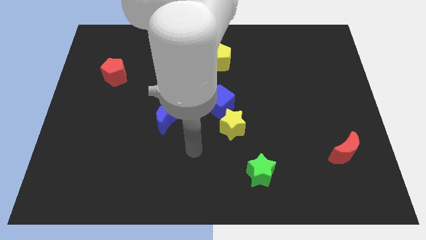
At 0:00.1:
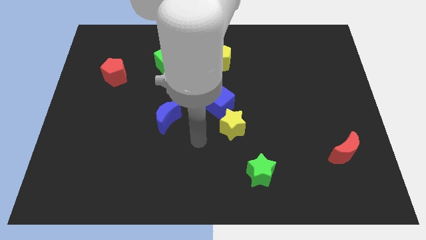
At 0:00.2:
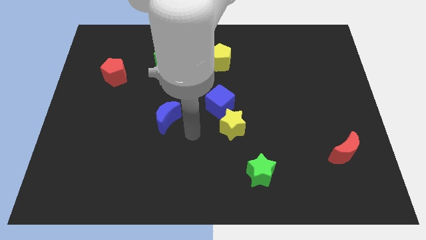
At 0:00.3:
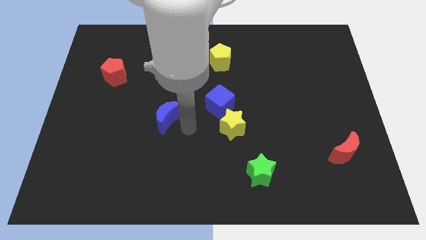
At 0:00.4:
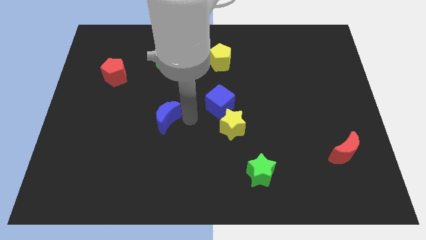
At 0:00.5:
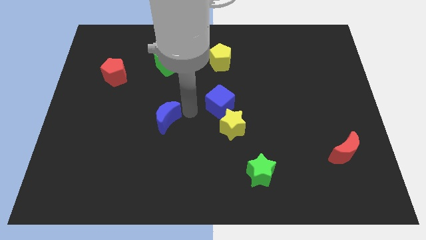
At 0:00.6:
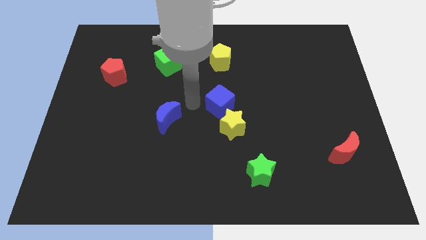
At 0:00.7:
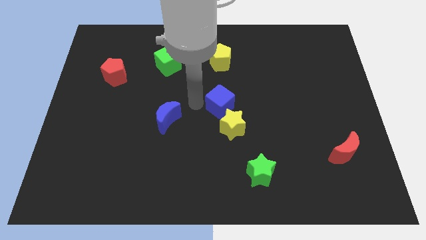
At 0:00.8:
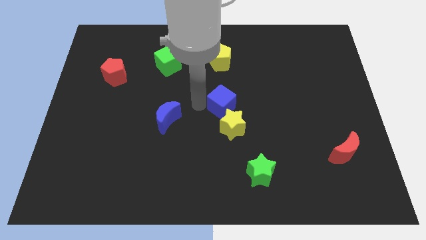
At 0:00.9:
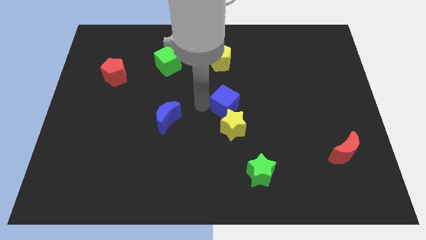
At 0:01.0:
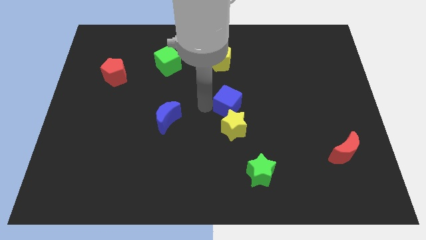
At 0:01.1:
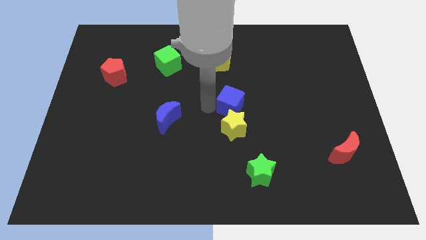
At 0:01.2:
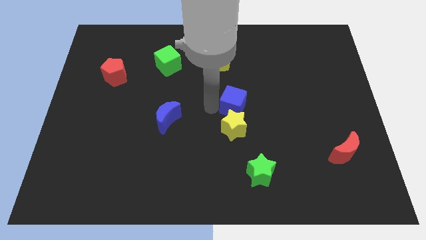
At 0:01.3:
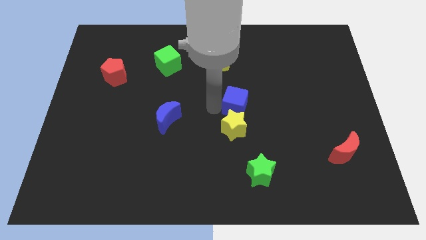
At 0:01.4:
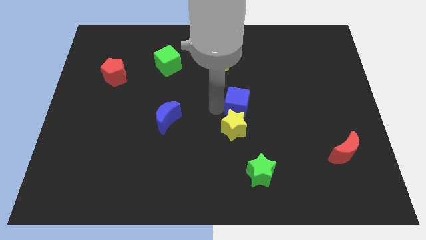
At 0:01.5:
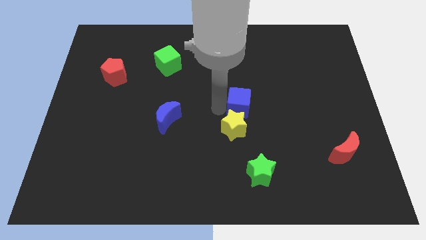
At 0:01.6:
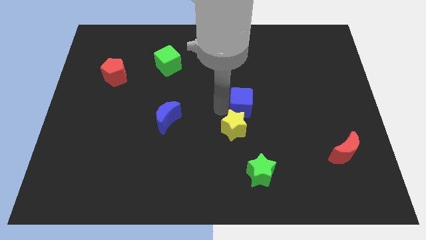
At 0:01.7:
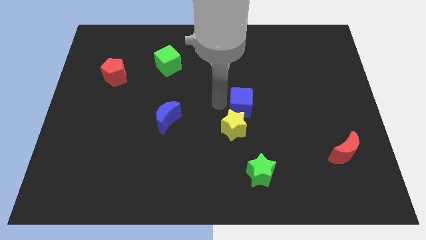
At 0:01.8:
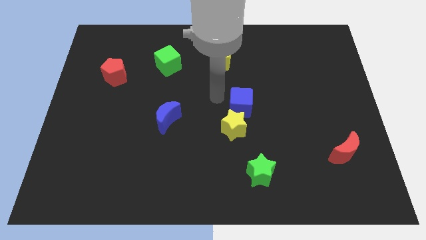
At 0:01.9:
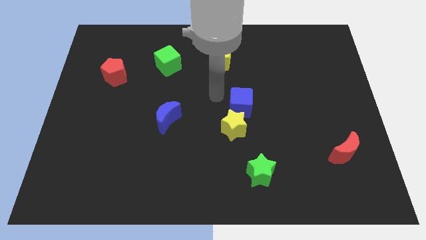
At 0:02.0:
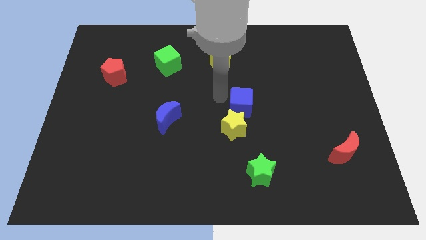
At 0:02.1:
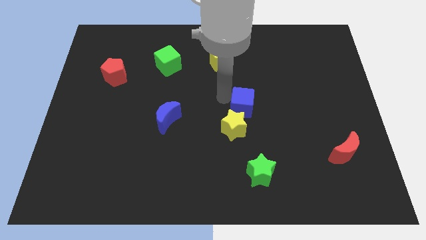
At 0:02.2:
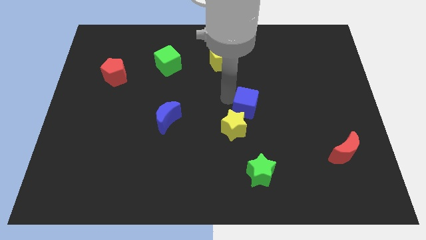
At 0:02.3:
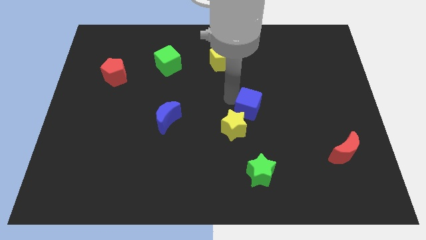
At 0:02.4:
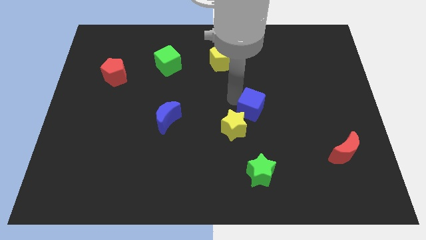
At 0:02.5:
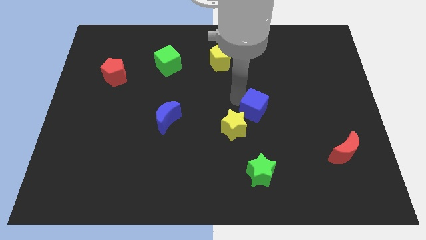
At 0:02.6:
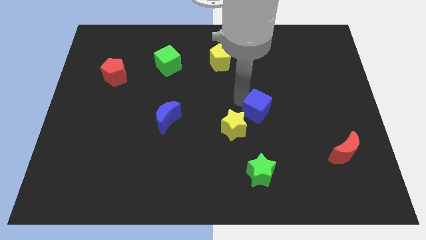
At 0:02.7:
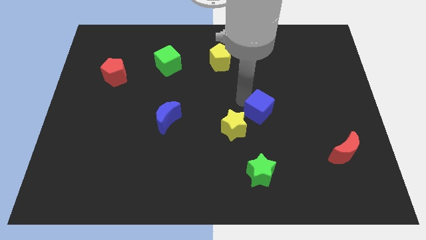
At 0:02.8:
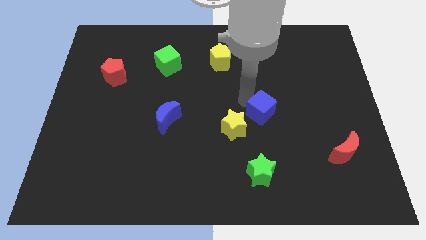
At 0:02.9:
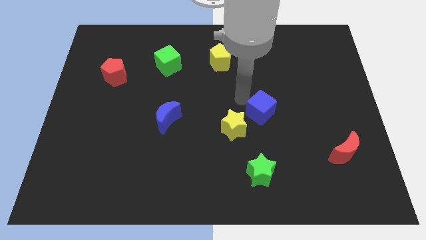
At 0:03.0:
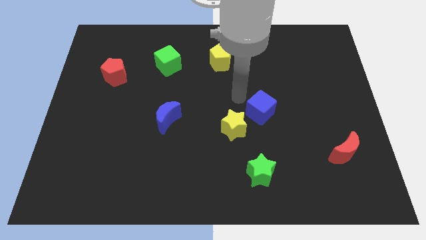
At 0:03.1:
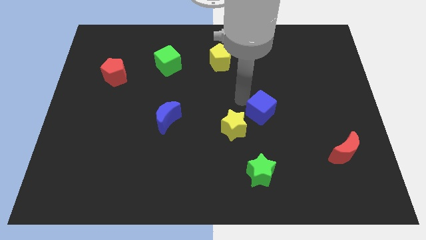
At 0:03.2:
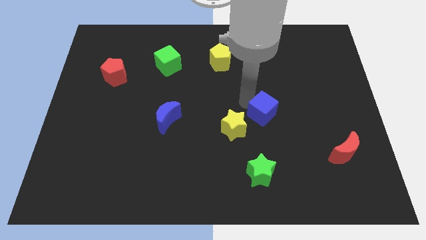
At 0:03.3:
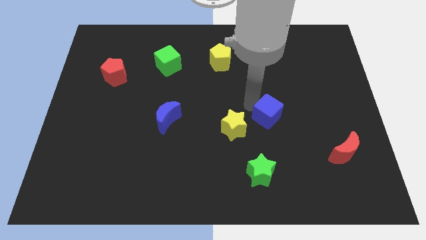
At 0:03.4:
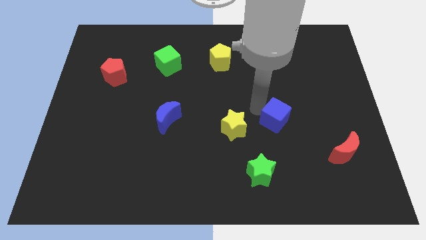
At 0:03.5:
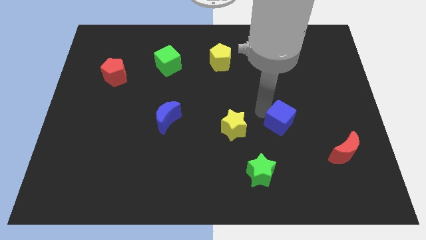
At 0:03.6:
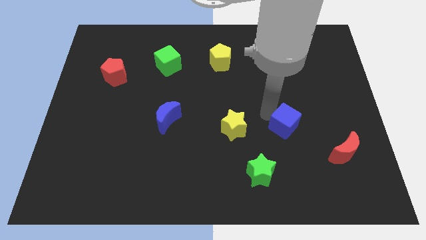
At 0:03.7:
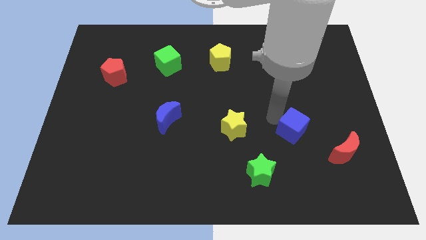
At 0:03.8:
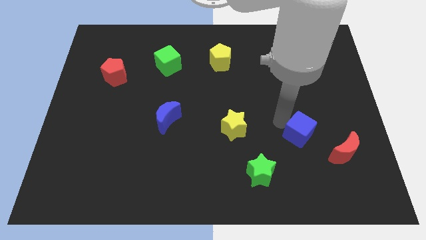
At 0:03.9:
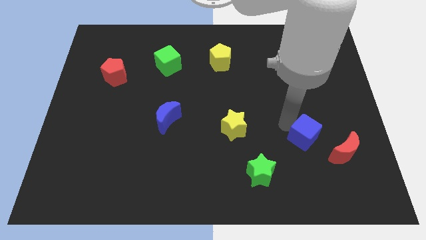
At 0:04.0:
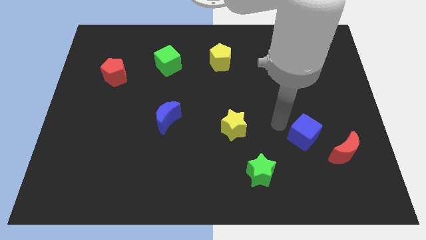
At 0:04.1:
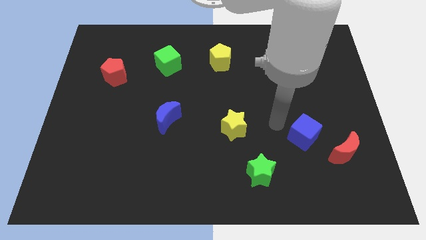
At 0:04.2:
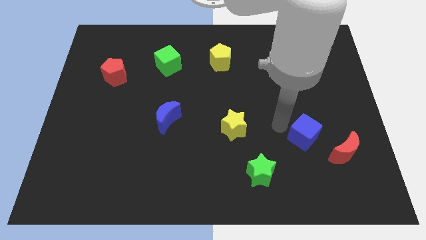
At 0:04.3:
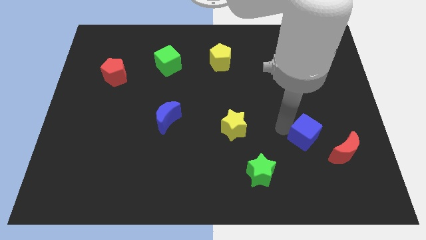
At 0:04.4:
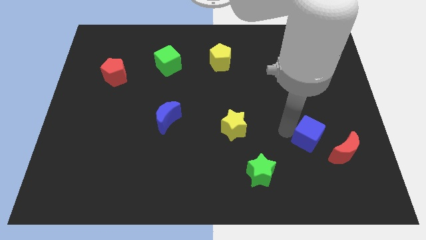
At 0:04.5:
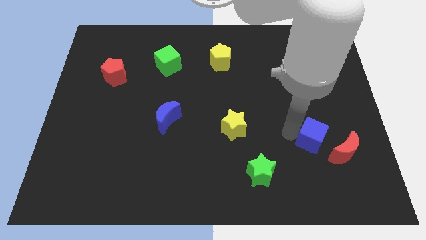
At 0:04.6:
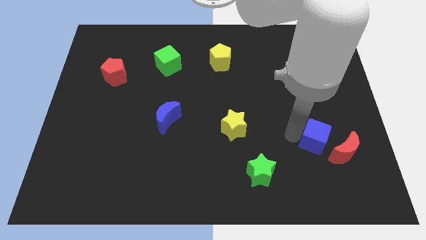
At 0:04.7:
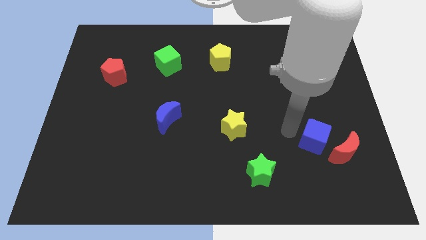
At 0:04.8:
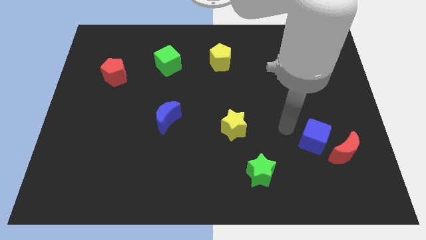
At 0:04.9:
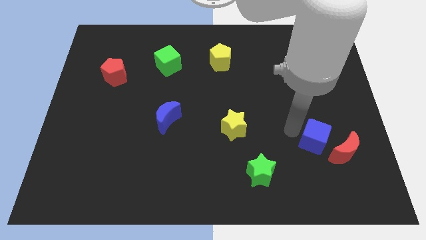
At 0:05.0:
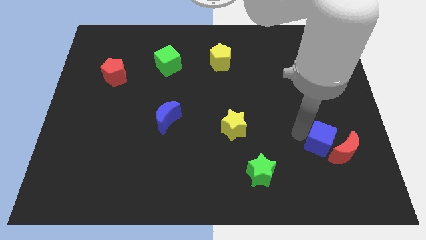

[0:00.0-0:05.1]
put the blue cube to the red moon

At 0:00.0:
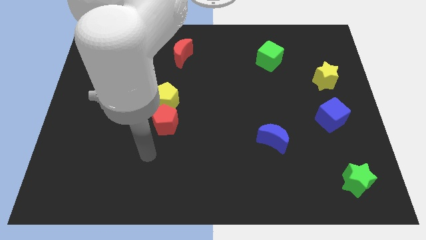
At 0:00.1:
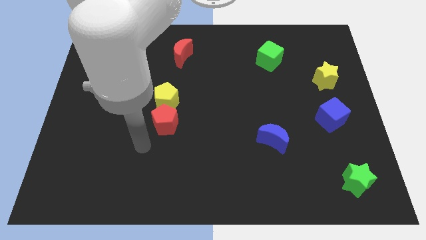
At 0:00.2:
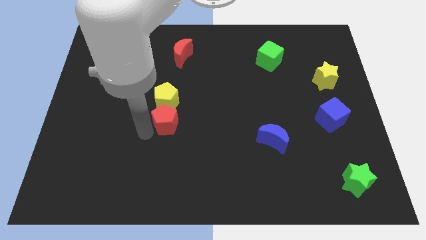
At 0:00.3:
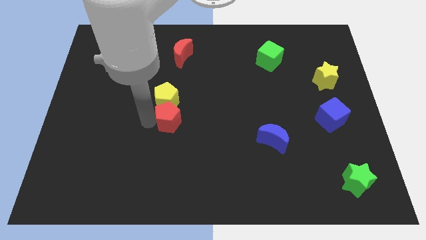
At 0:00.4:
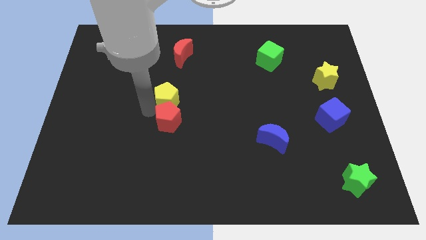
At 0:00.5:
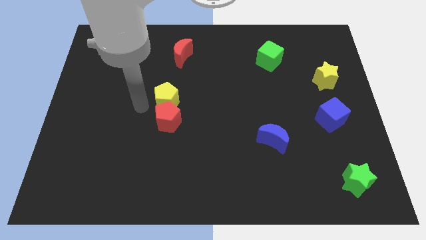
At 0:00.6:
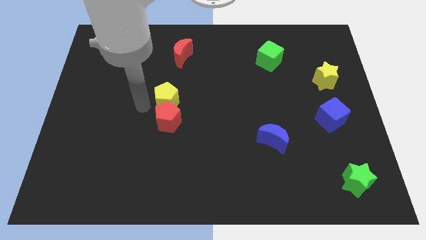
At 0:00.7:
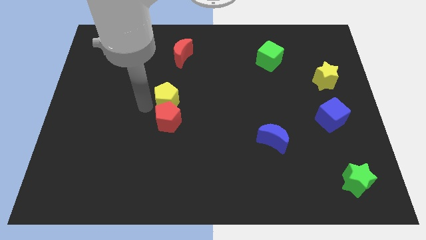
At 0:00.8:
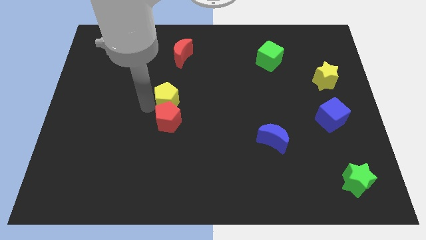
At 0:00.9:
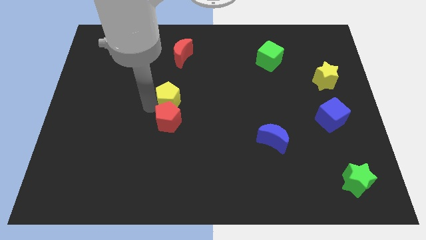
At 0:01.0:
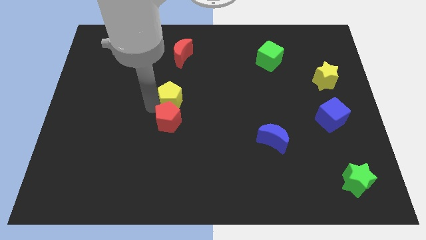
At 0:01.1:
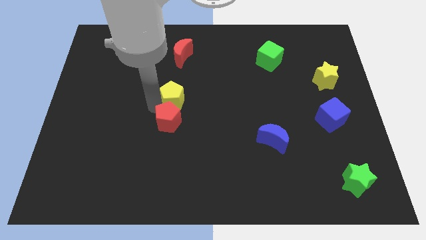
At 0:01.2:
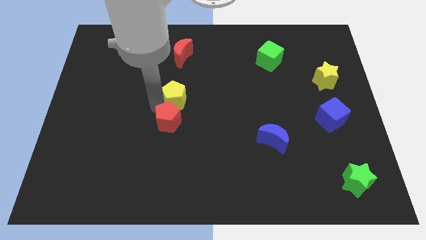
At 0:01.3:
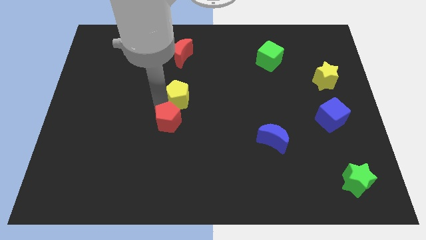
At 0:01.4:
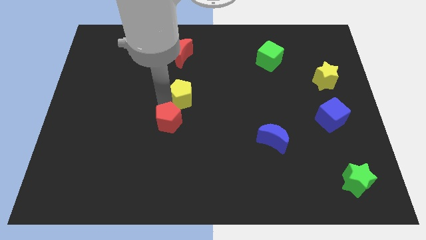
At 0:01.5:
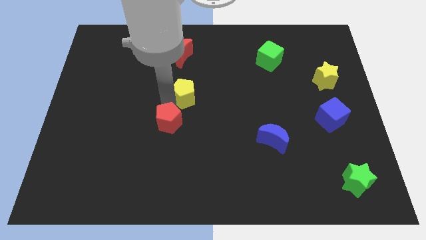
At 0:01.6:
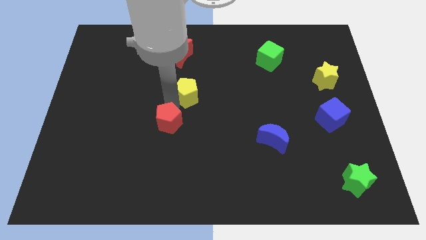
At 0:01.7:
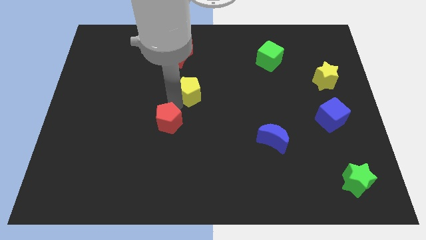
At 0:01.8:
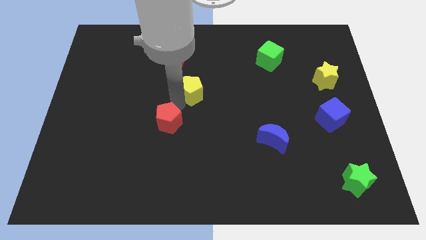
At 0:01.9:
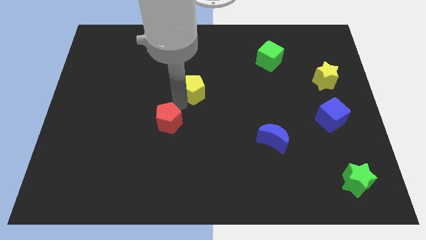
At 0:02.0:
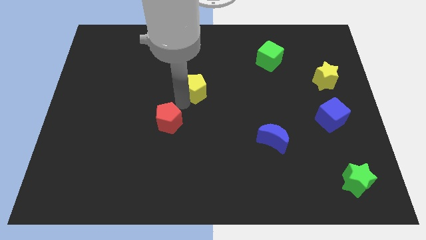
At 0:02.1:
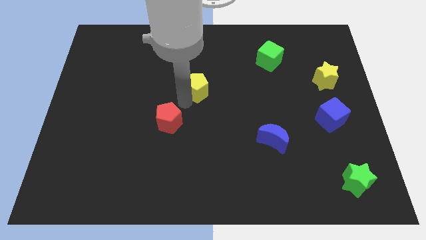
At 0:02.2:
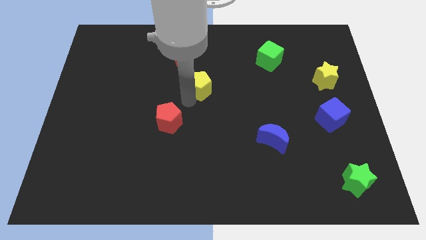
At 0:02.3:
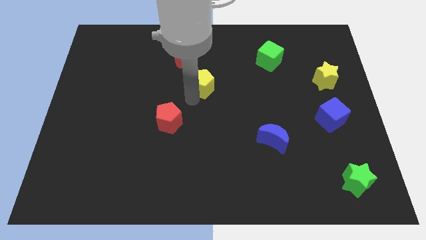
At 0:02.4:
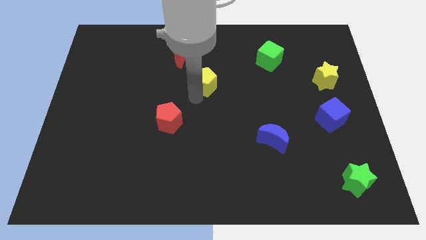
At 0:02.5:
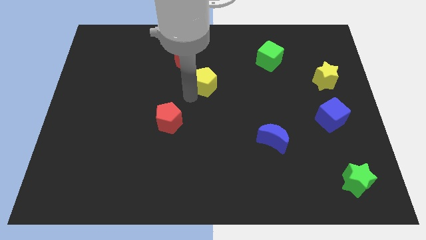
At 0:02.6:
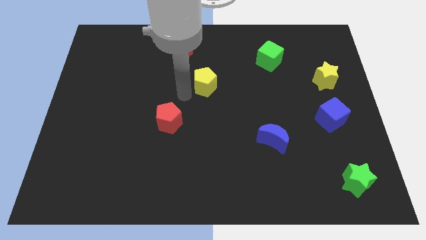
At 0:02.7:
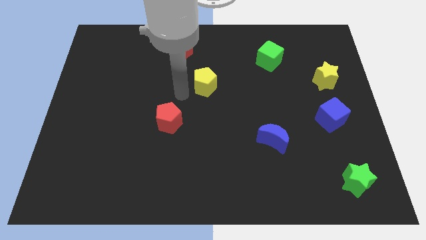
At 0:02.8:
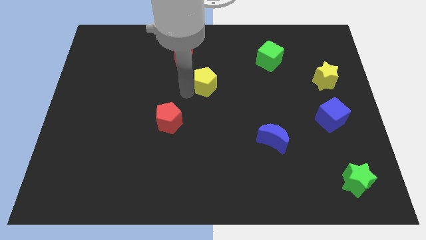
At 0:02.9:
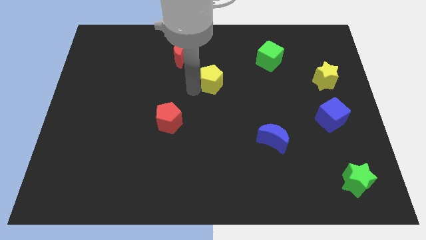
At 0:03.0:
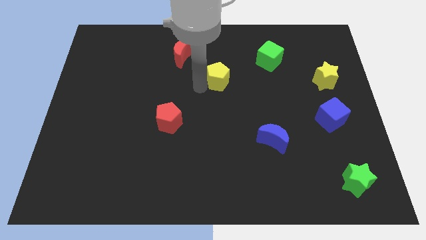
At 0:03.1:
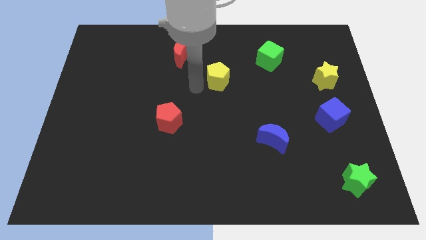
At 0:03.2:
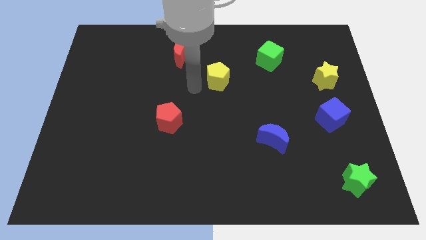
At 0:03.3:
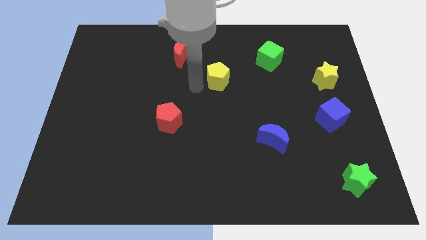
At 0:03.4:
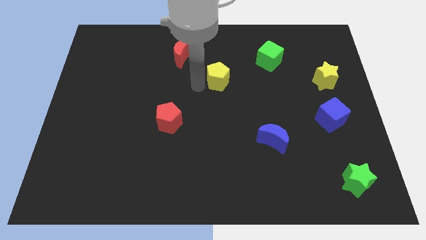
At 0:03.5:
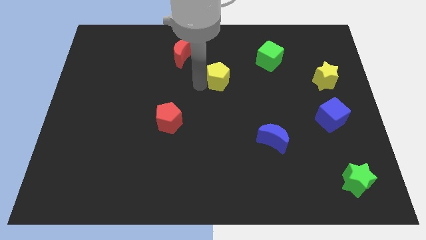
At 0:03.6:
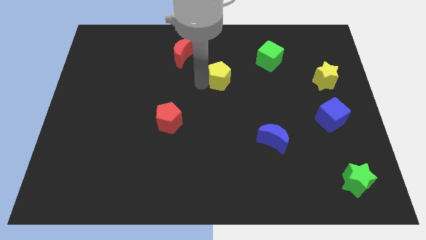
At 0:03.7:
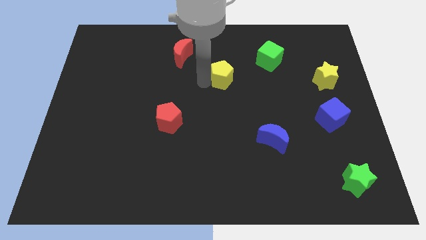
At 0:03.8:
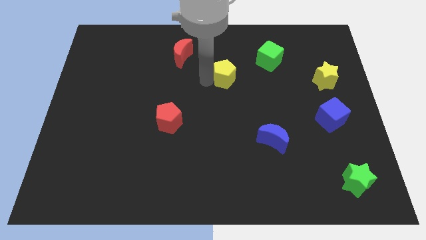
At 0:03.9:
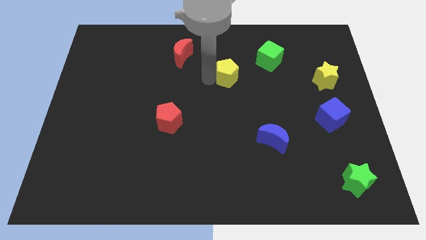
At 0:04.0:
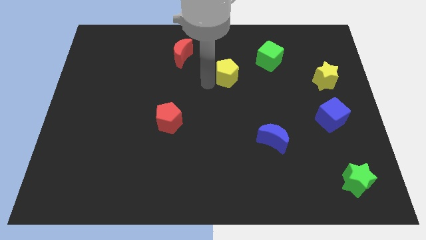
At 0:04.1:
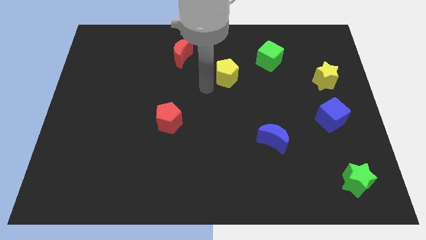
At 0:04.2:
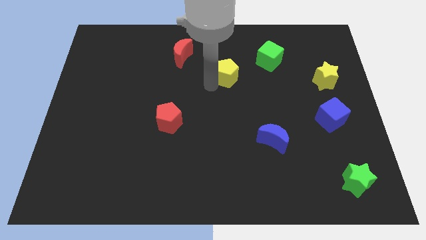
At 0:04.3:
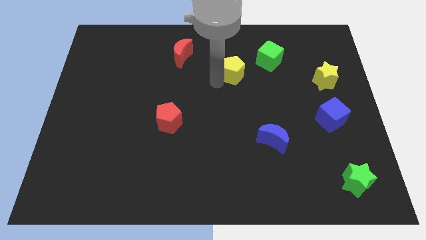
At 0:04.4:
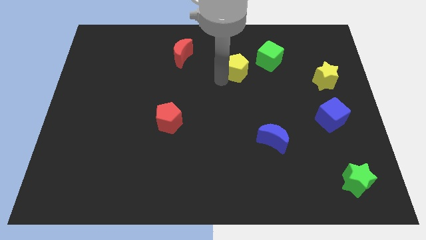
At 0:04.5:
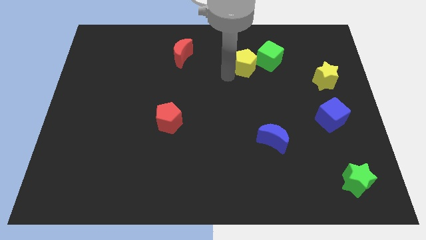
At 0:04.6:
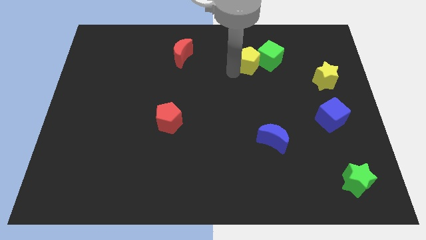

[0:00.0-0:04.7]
slide the yellow pentagon towards the green cube
